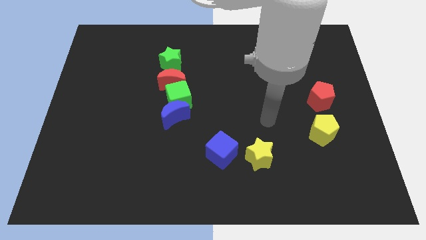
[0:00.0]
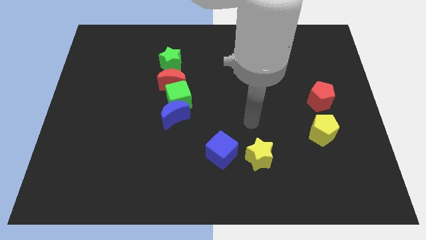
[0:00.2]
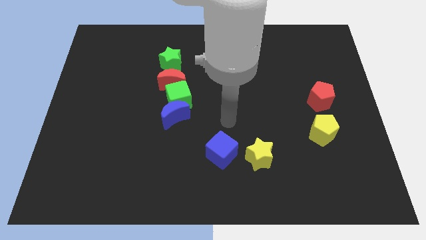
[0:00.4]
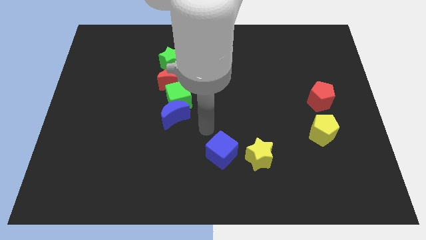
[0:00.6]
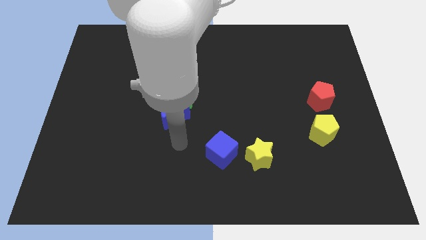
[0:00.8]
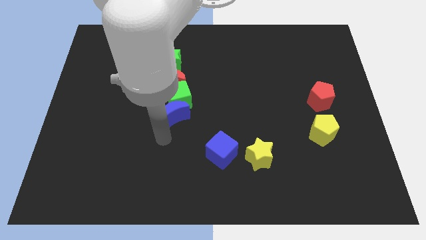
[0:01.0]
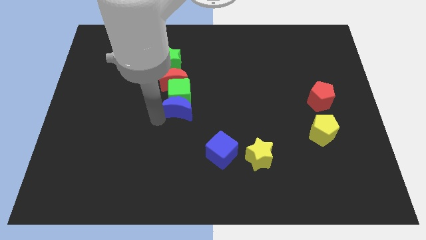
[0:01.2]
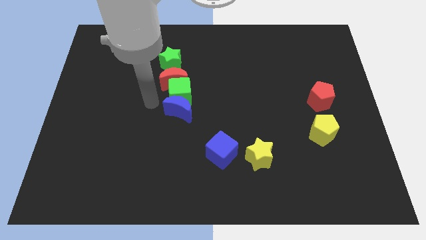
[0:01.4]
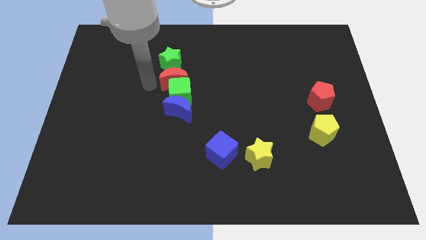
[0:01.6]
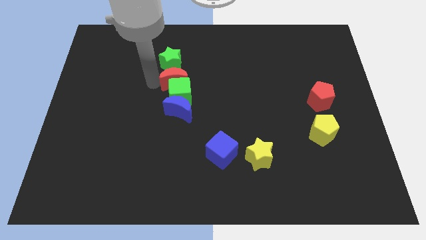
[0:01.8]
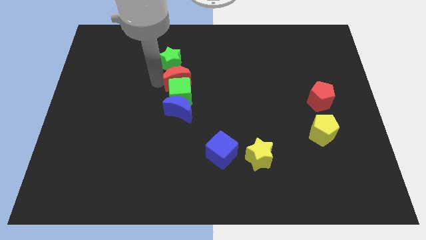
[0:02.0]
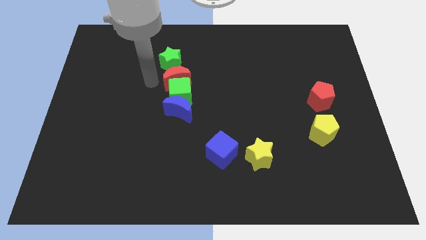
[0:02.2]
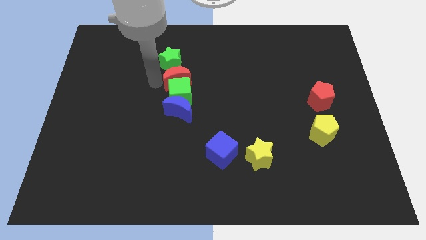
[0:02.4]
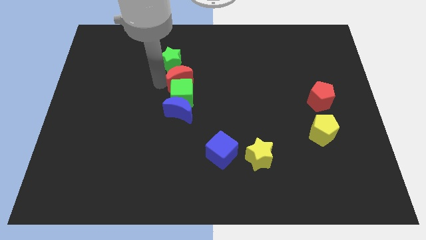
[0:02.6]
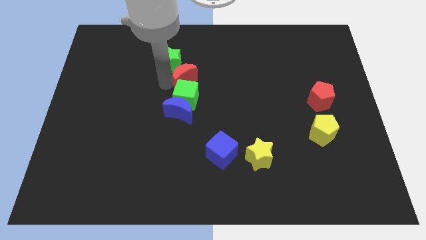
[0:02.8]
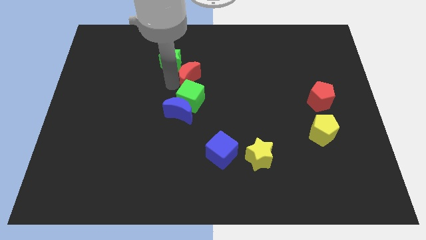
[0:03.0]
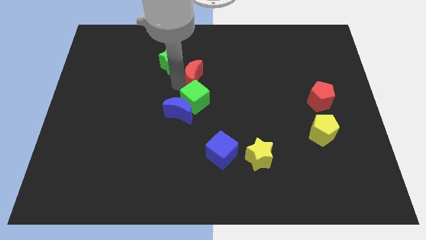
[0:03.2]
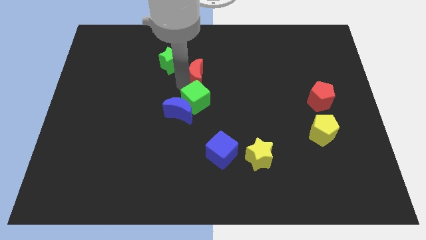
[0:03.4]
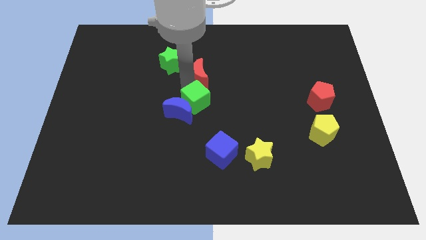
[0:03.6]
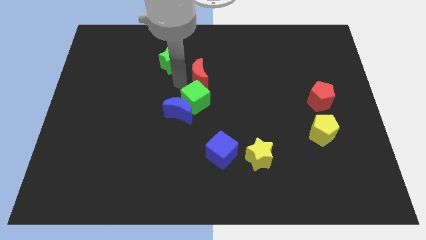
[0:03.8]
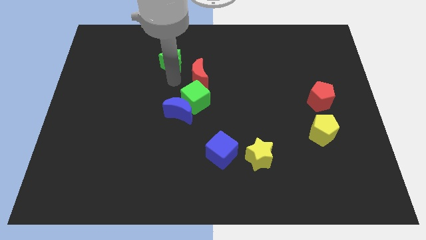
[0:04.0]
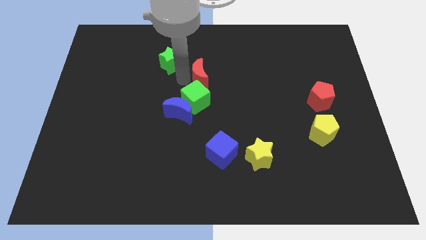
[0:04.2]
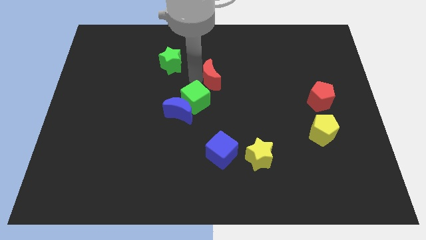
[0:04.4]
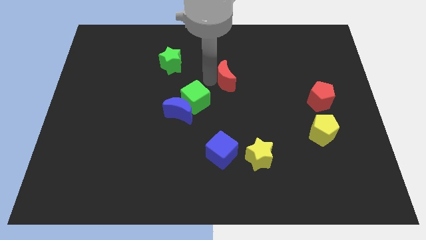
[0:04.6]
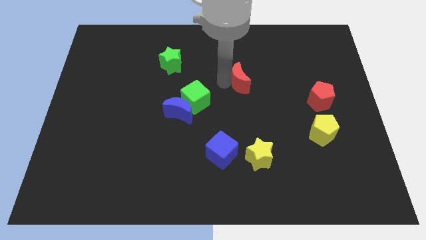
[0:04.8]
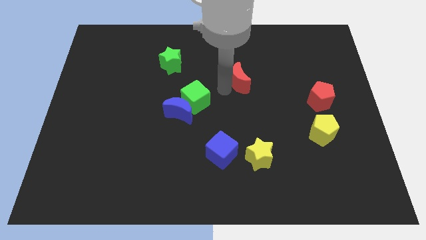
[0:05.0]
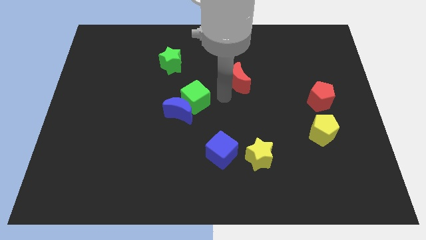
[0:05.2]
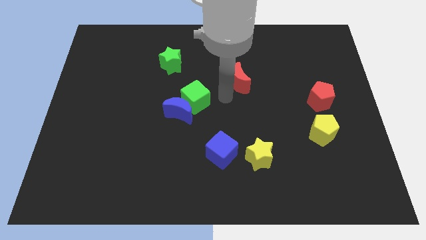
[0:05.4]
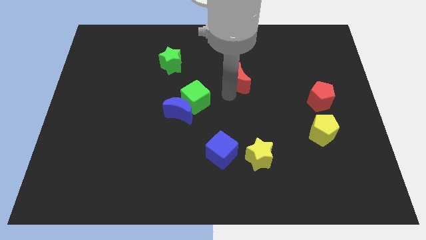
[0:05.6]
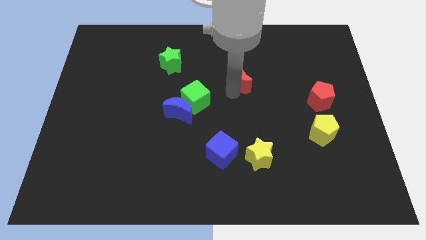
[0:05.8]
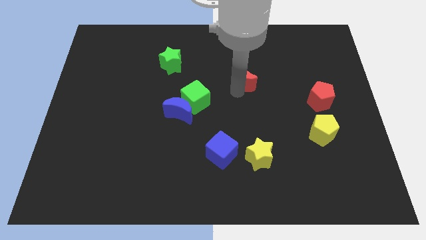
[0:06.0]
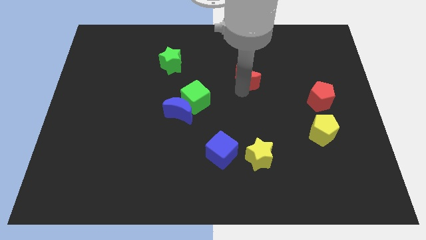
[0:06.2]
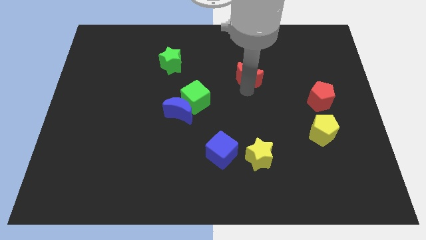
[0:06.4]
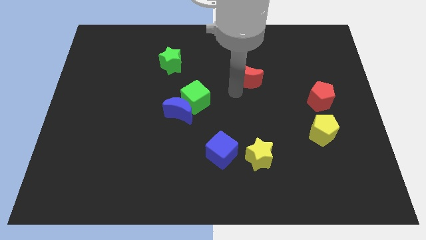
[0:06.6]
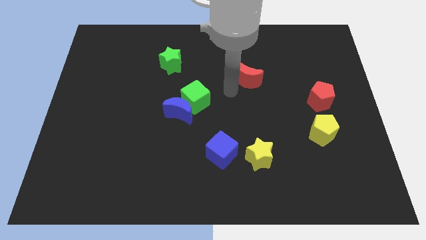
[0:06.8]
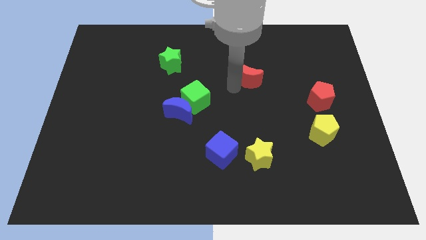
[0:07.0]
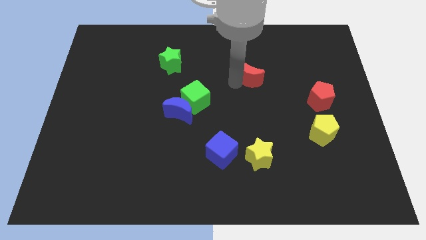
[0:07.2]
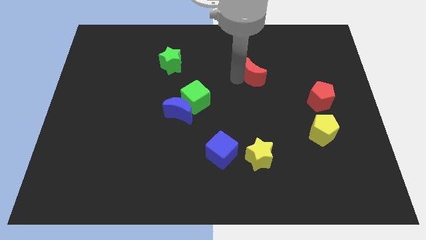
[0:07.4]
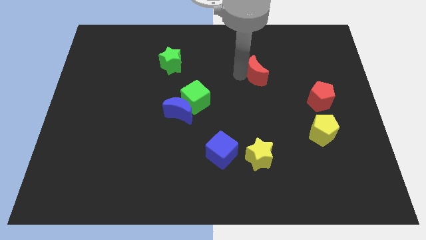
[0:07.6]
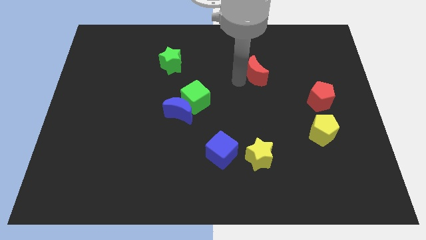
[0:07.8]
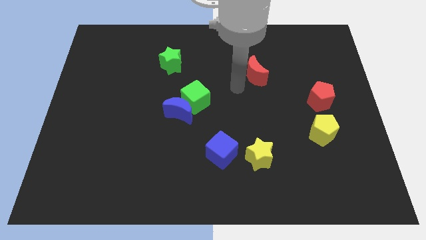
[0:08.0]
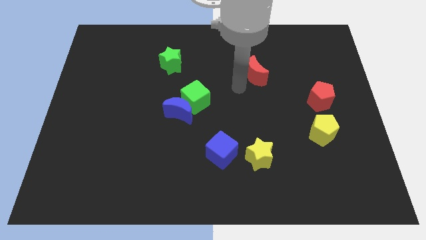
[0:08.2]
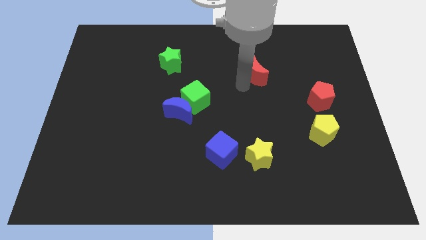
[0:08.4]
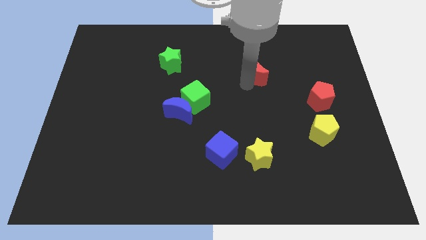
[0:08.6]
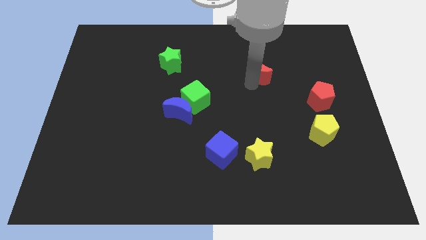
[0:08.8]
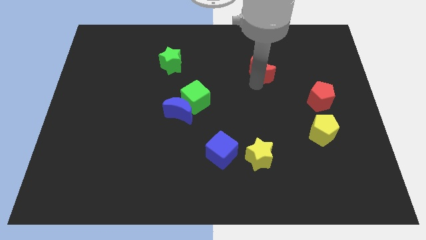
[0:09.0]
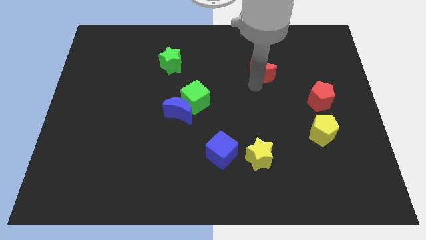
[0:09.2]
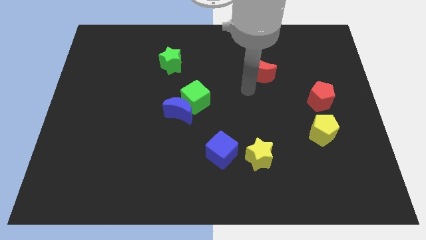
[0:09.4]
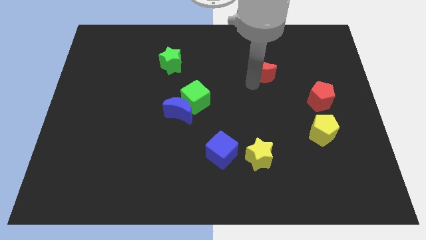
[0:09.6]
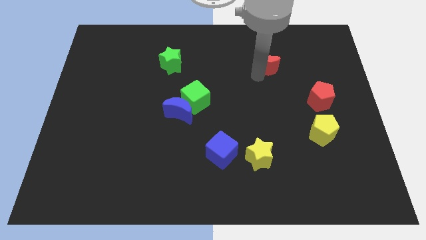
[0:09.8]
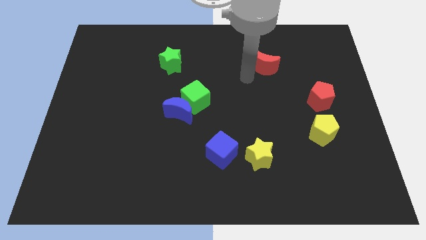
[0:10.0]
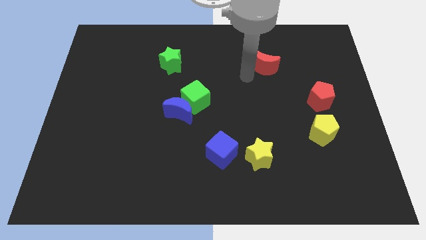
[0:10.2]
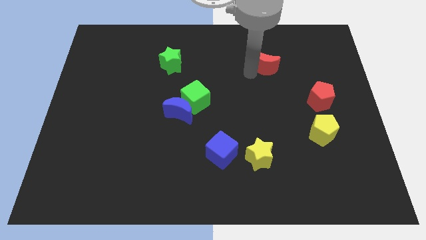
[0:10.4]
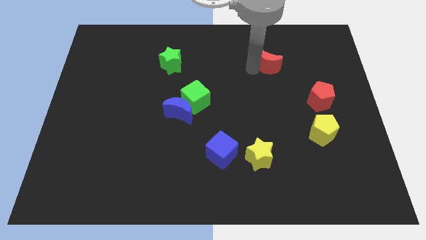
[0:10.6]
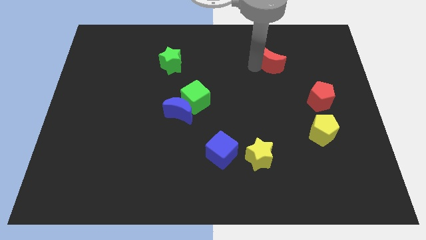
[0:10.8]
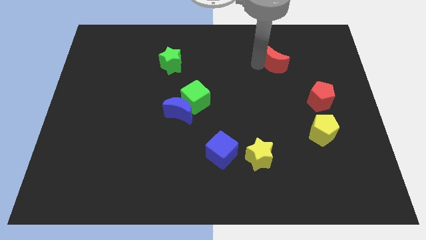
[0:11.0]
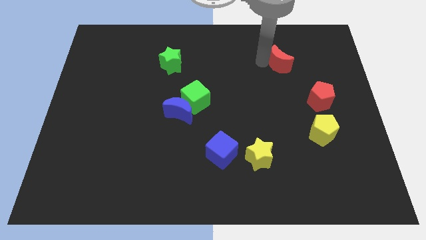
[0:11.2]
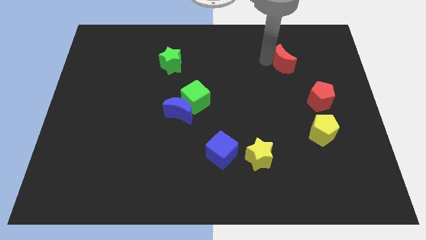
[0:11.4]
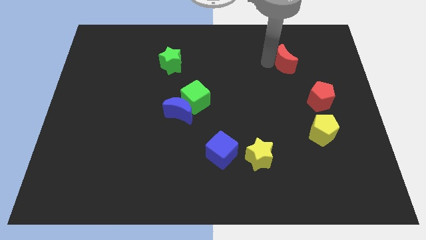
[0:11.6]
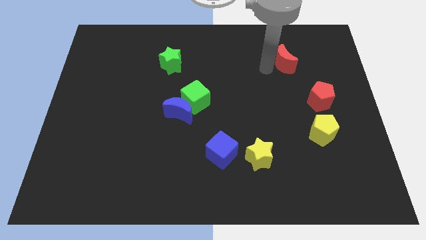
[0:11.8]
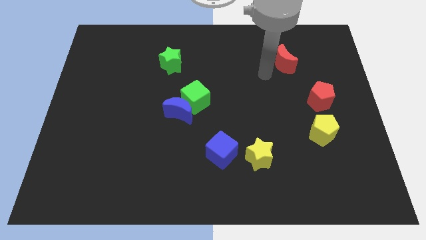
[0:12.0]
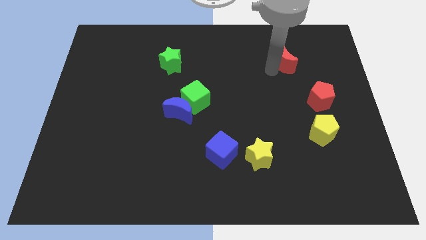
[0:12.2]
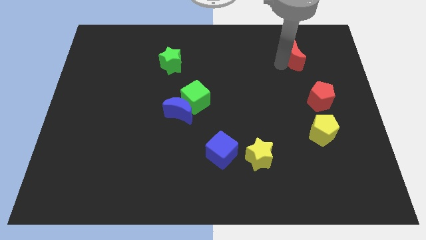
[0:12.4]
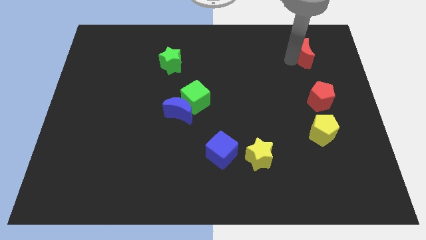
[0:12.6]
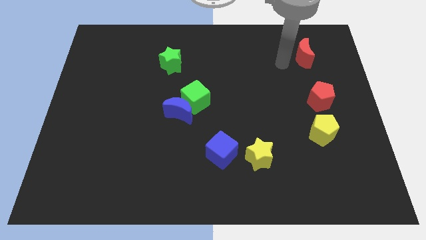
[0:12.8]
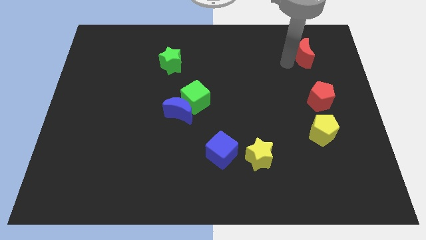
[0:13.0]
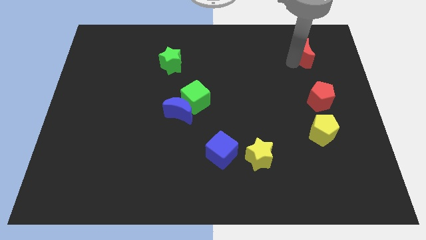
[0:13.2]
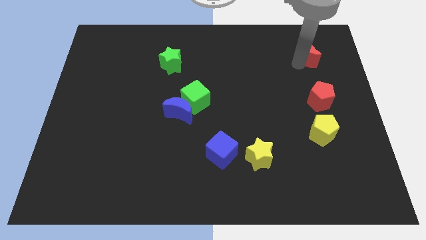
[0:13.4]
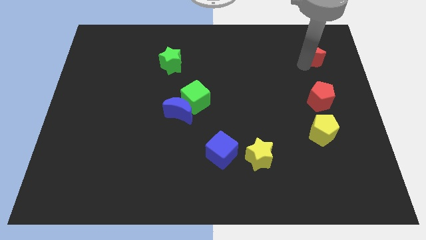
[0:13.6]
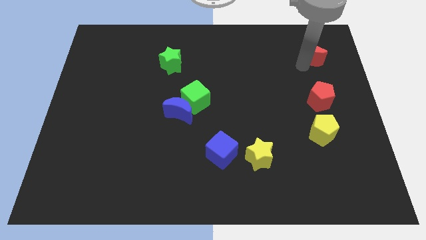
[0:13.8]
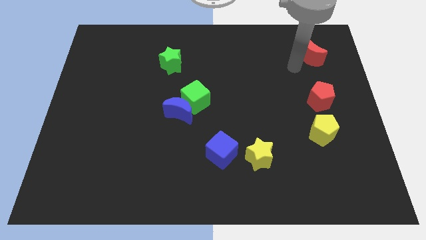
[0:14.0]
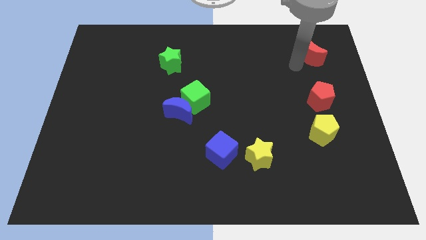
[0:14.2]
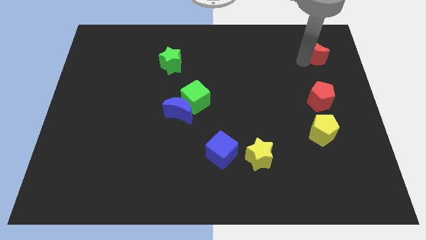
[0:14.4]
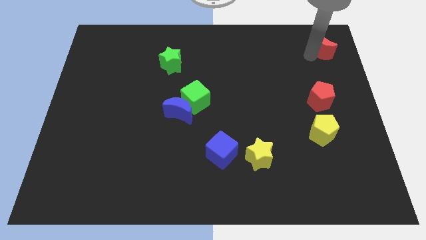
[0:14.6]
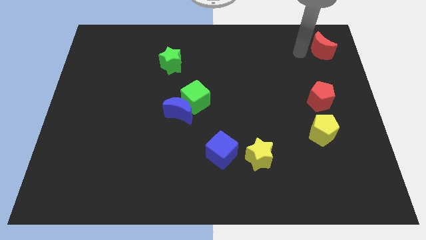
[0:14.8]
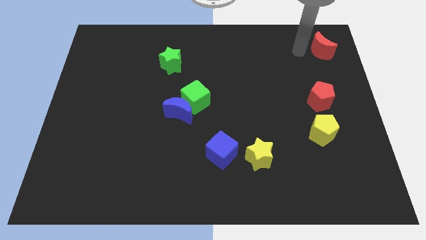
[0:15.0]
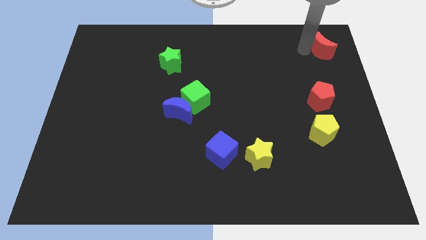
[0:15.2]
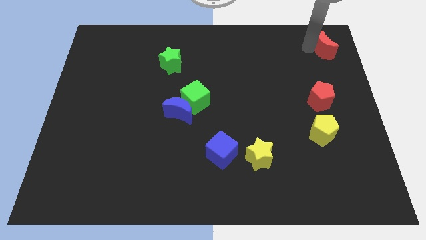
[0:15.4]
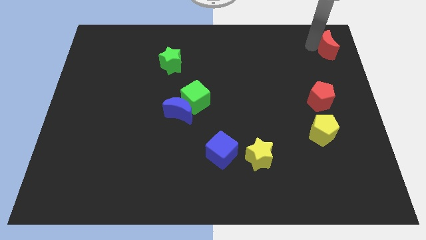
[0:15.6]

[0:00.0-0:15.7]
put the red moon to the top right of the board
